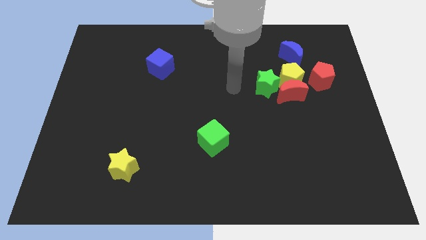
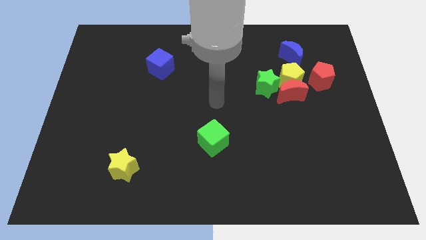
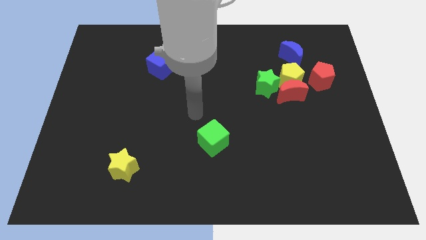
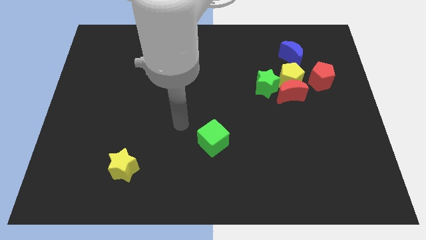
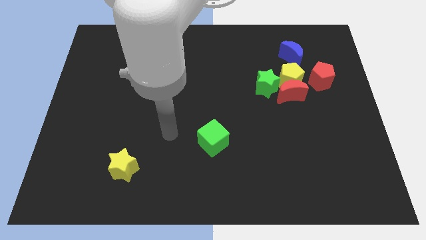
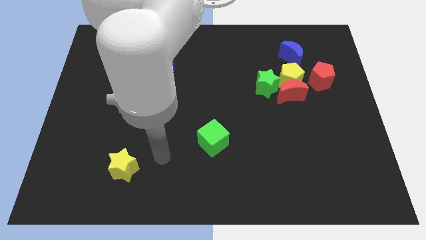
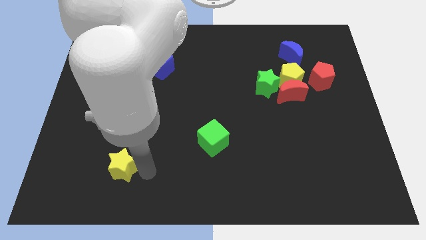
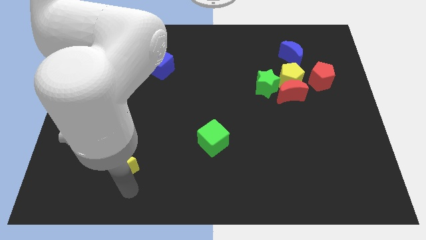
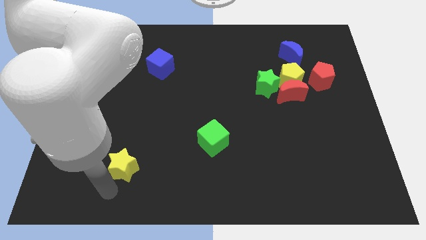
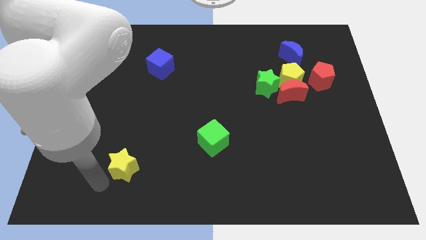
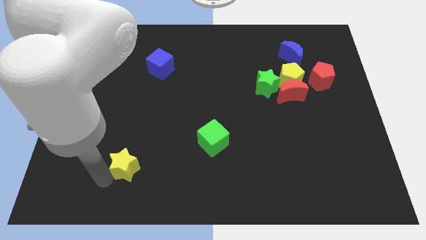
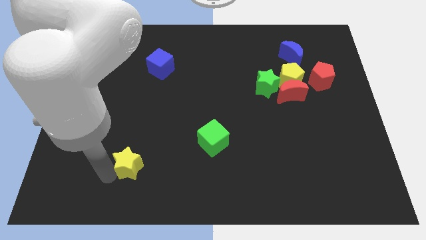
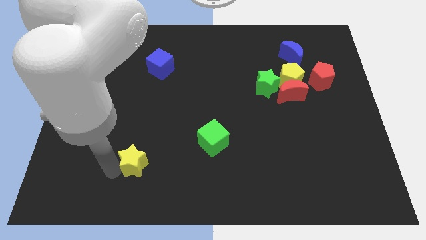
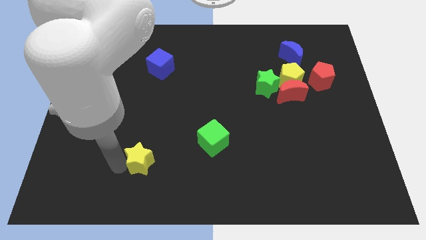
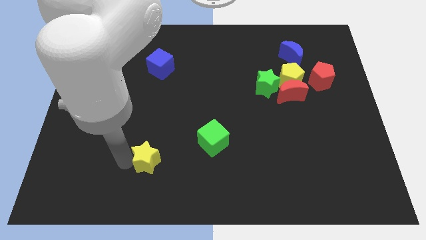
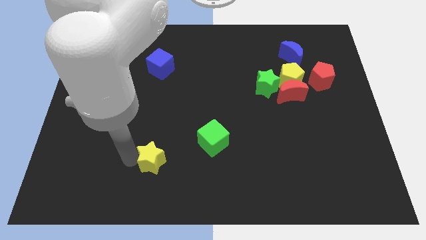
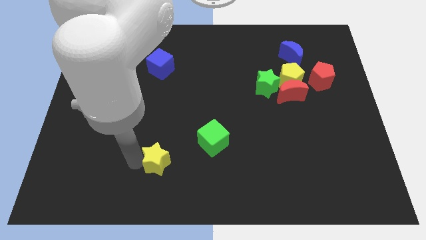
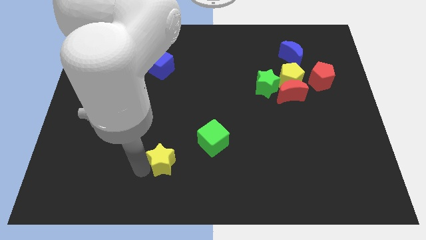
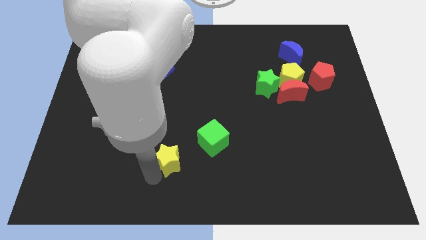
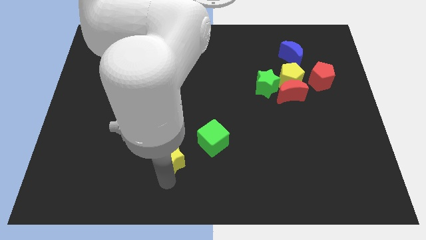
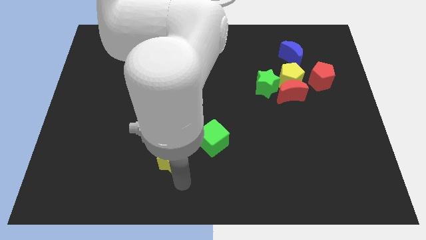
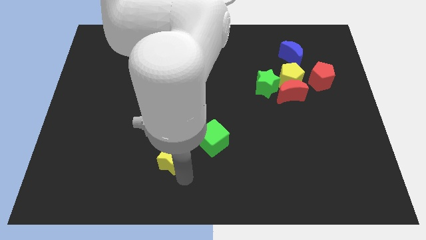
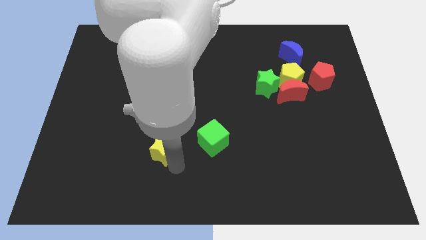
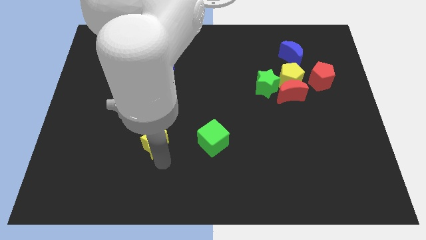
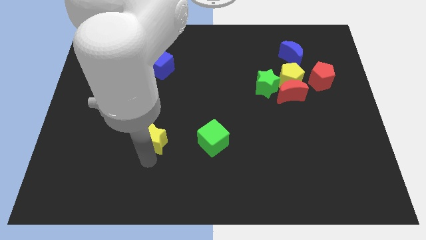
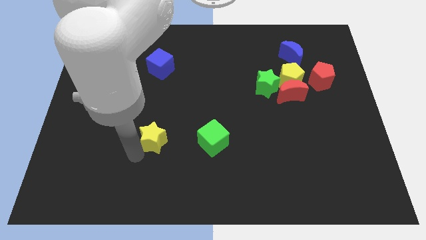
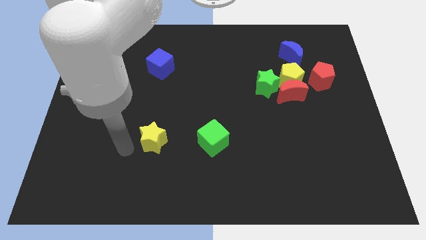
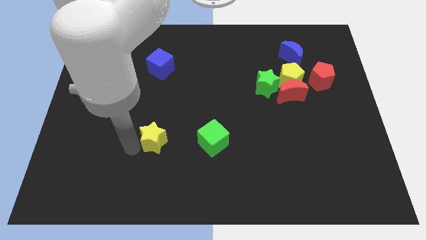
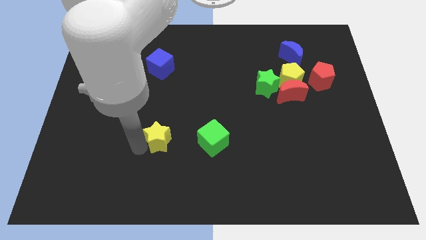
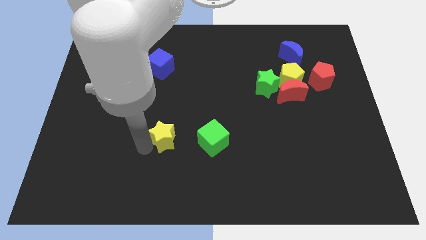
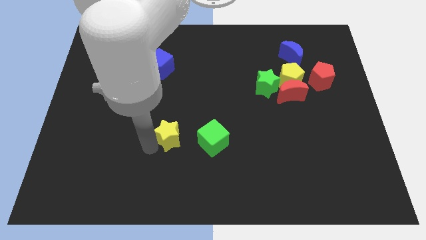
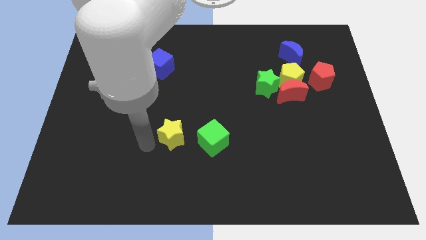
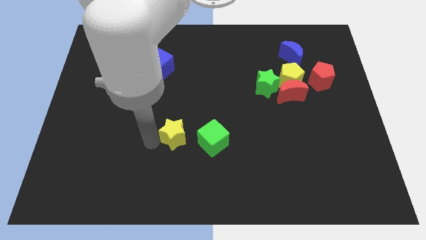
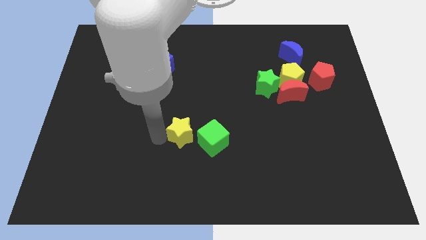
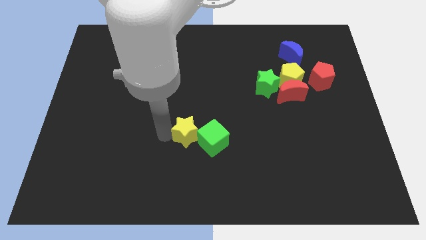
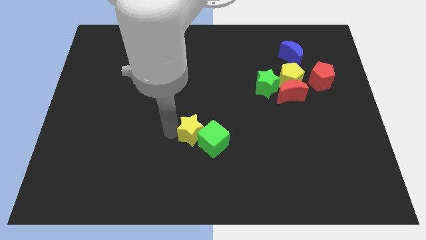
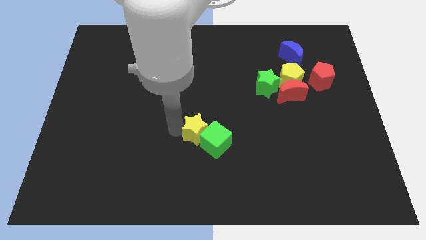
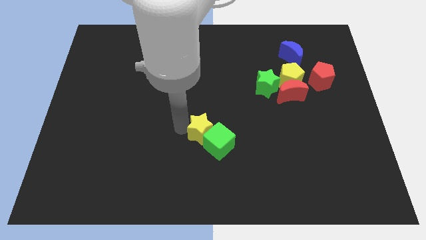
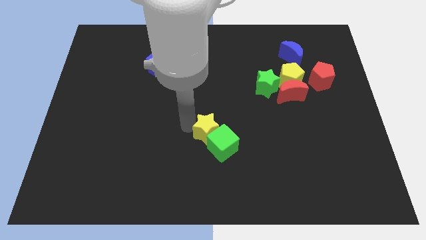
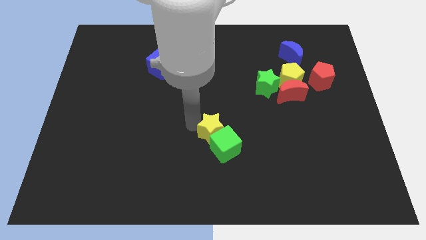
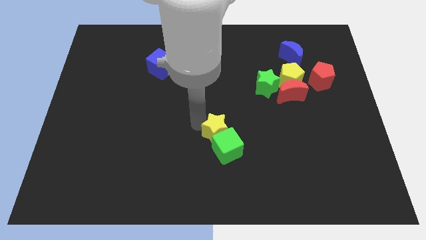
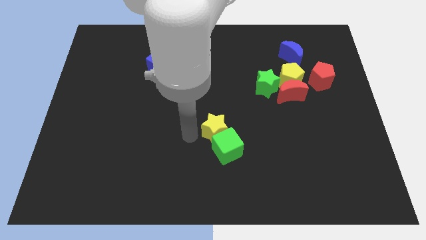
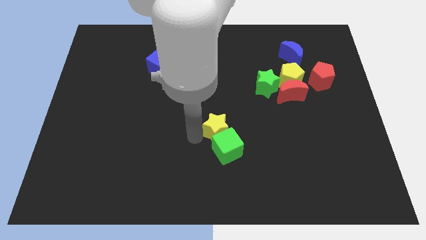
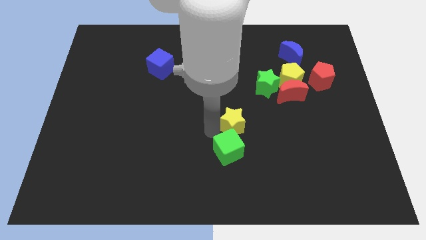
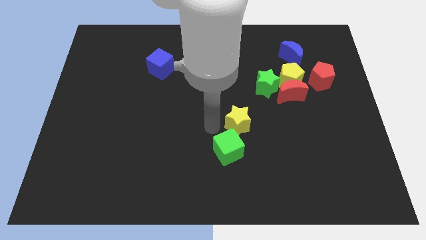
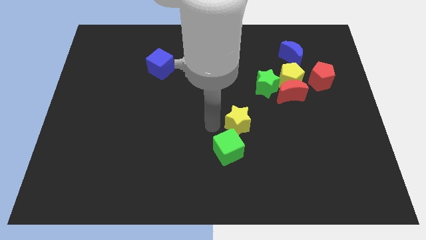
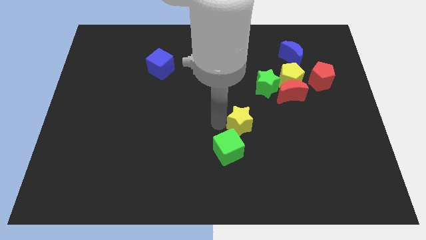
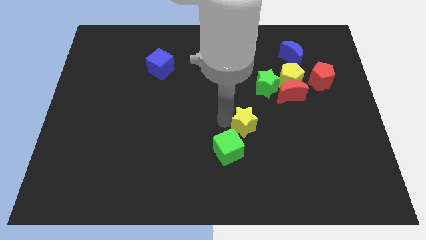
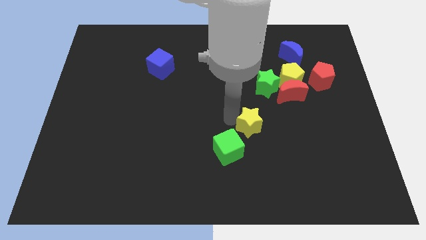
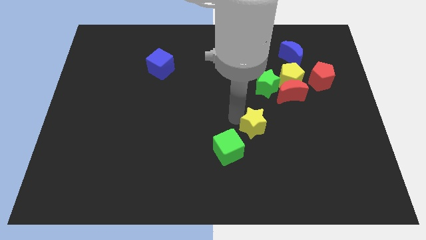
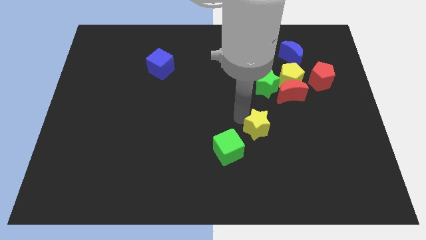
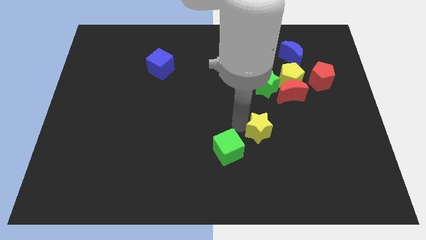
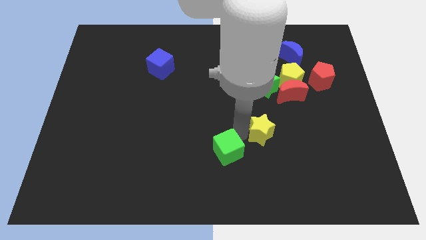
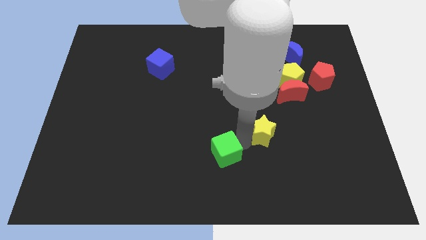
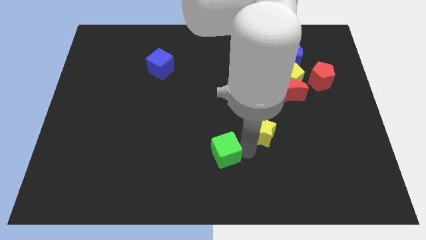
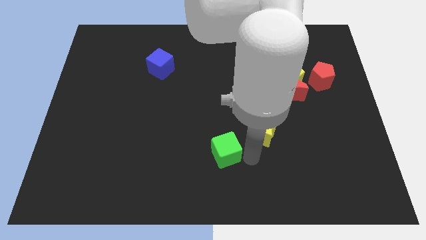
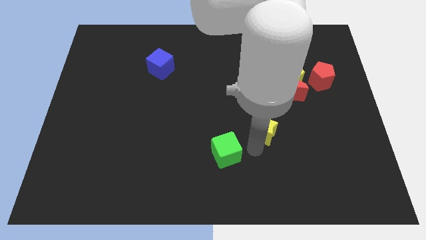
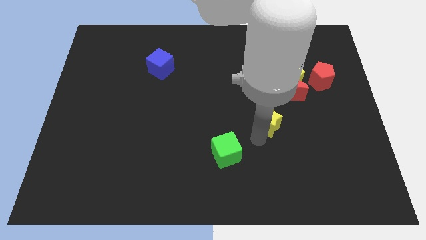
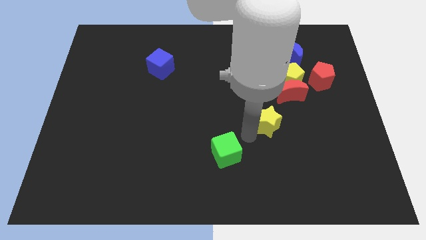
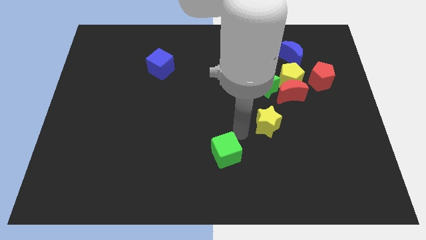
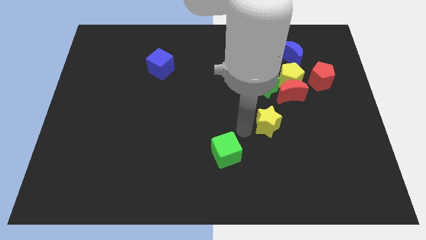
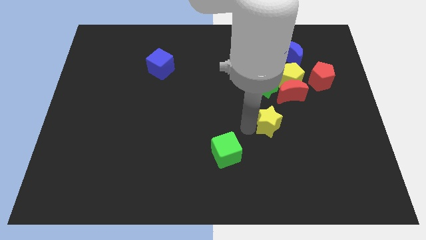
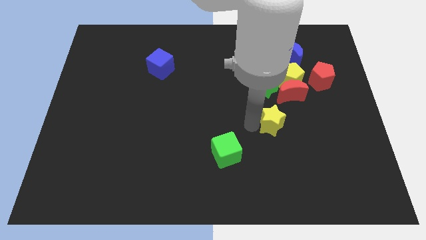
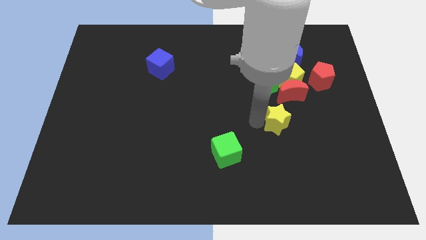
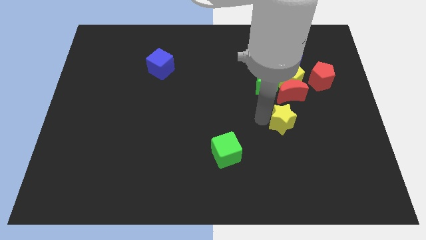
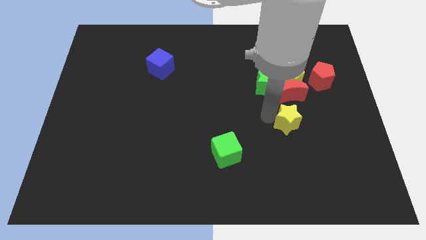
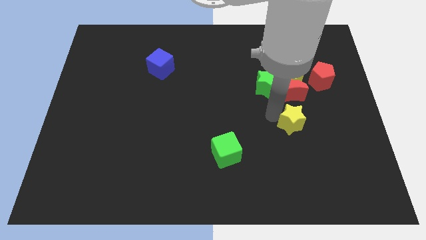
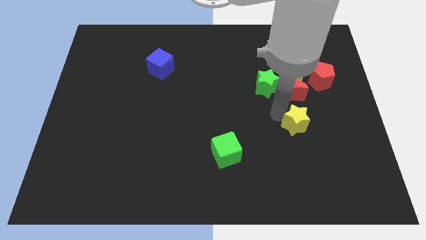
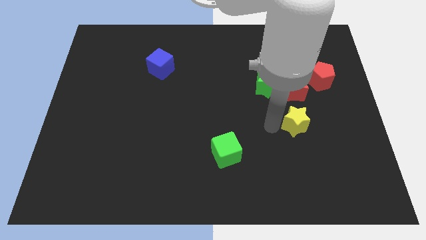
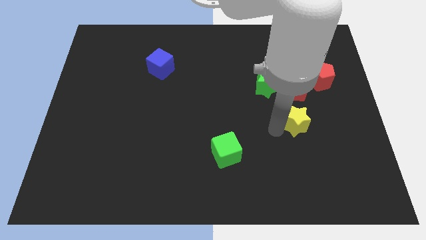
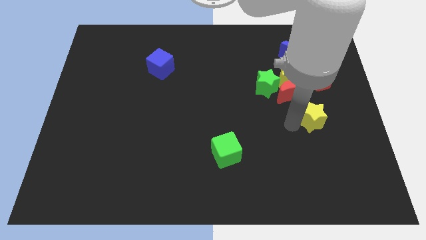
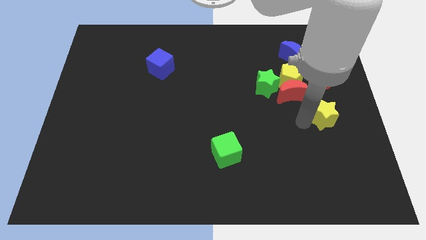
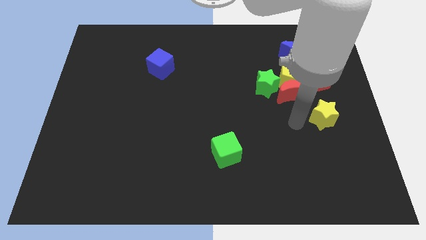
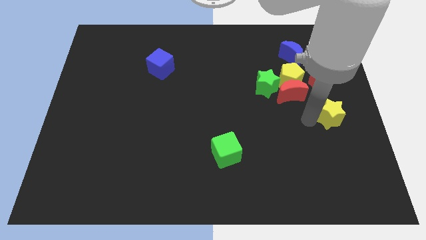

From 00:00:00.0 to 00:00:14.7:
move the yellow star to the right side
